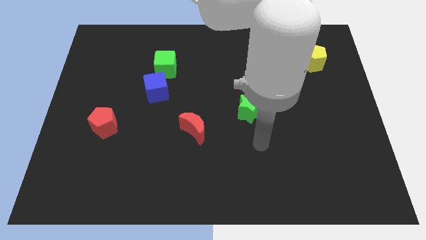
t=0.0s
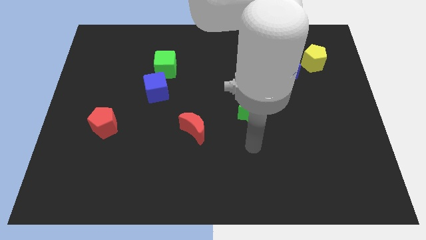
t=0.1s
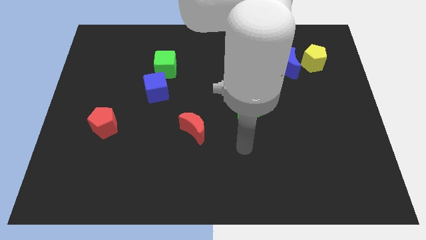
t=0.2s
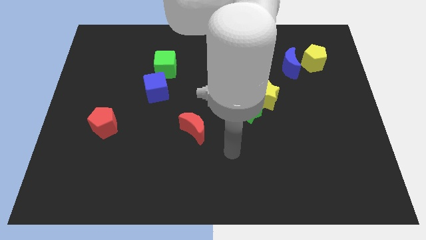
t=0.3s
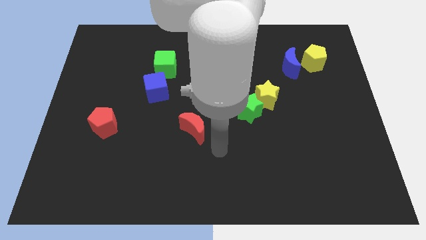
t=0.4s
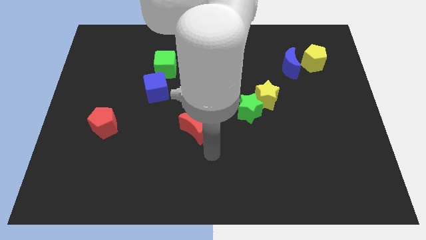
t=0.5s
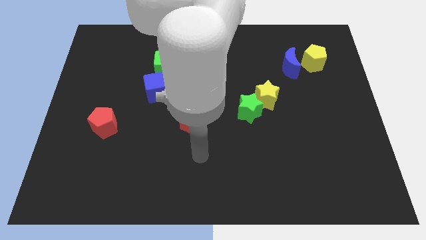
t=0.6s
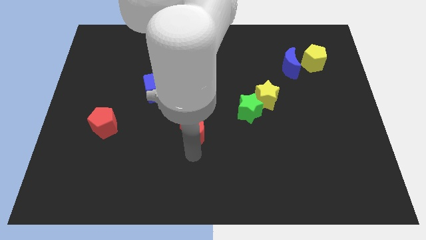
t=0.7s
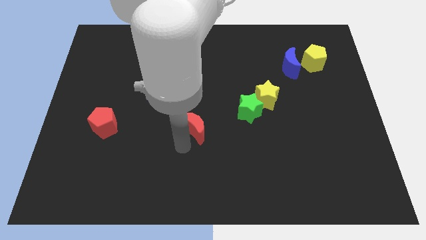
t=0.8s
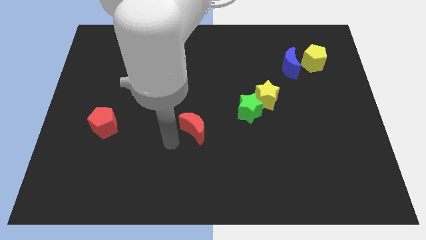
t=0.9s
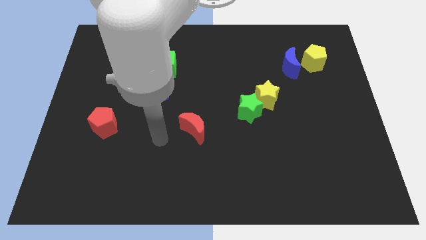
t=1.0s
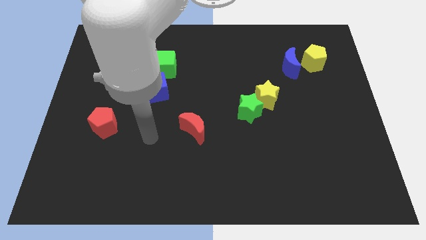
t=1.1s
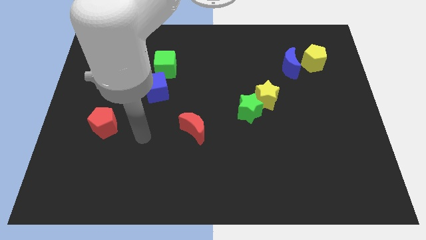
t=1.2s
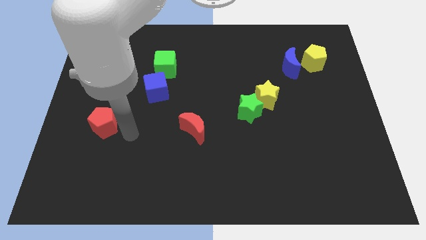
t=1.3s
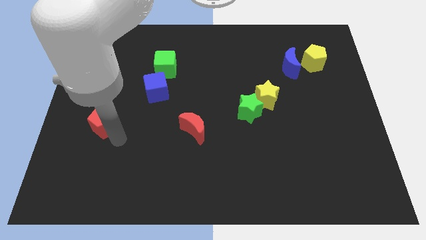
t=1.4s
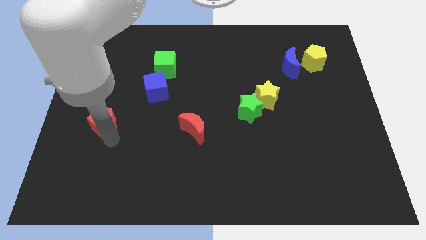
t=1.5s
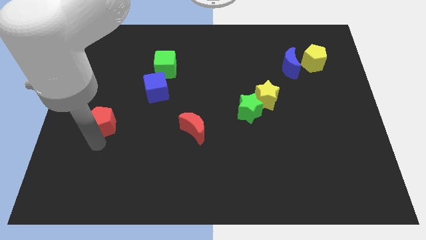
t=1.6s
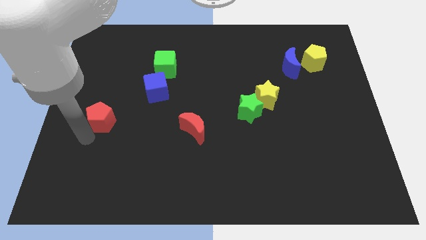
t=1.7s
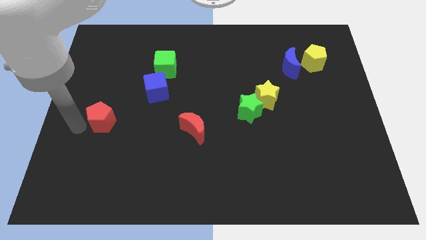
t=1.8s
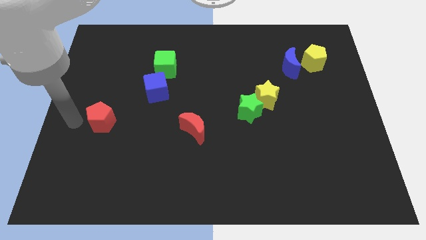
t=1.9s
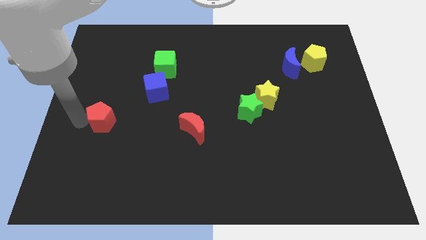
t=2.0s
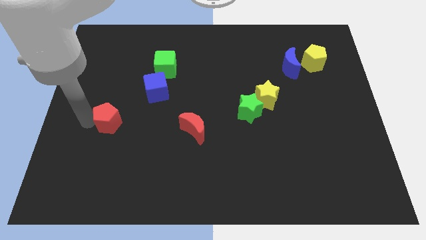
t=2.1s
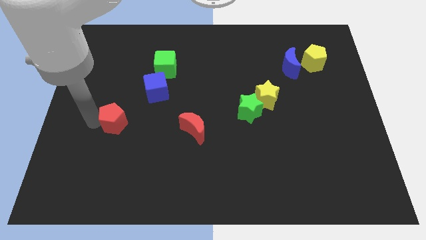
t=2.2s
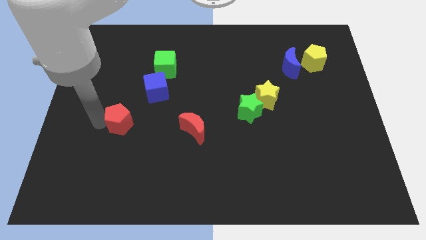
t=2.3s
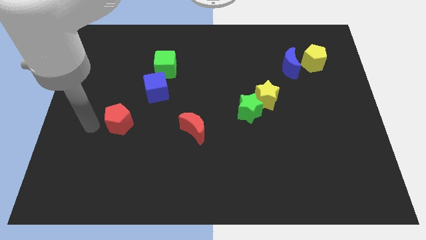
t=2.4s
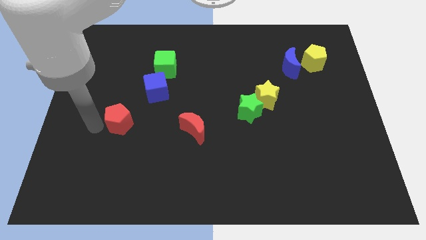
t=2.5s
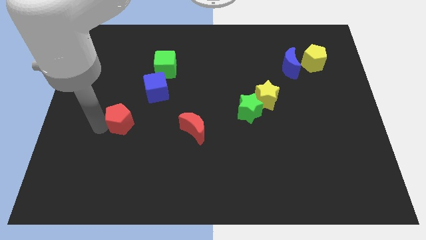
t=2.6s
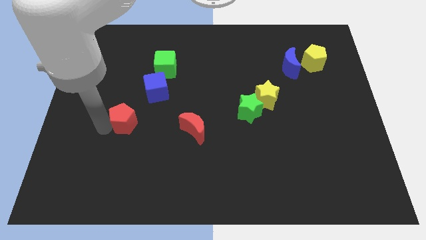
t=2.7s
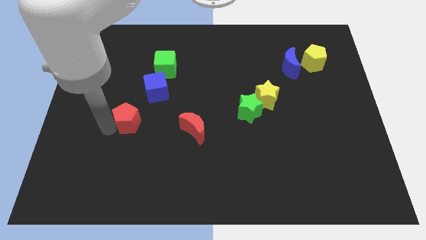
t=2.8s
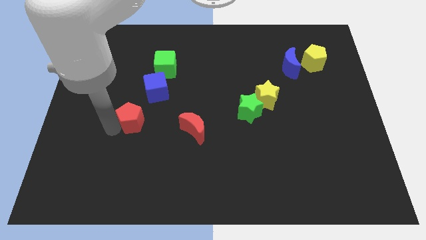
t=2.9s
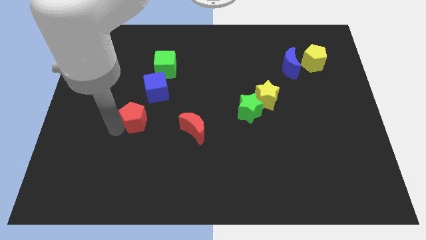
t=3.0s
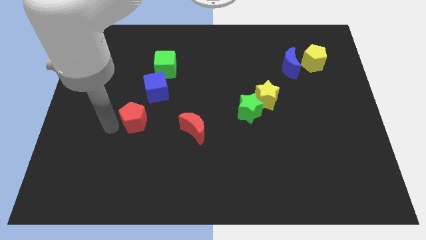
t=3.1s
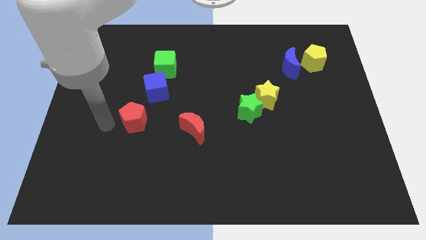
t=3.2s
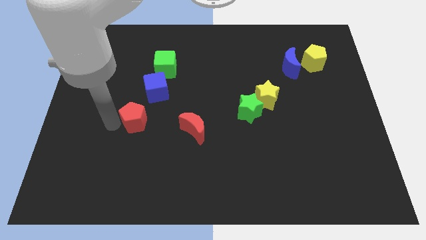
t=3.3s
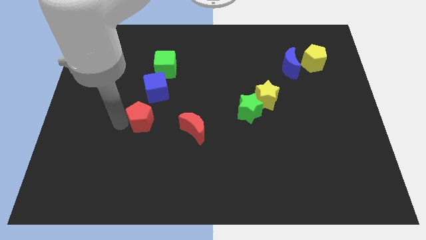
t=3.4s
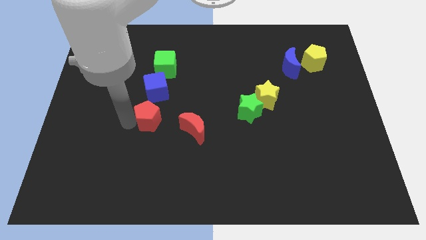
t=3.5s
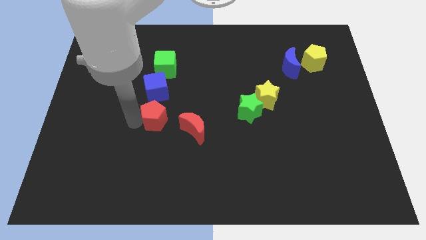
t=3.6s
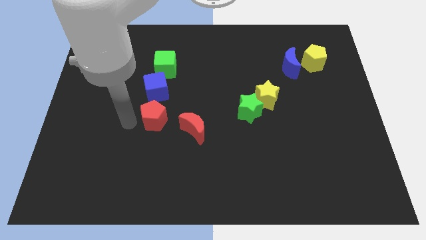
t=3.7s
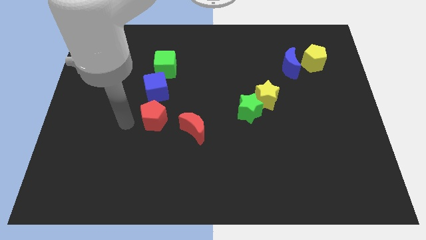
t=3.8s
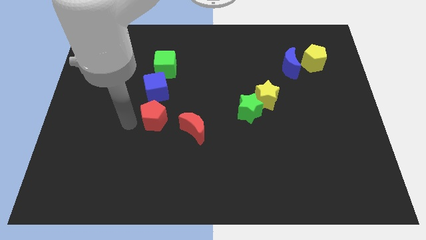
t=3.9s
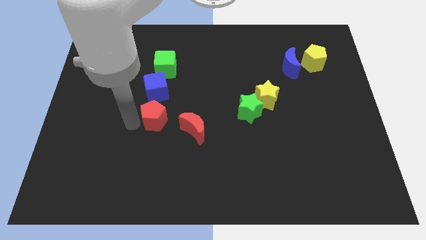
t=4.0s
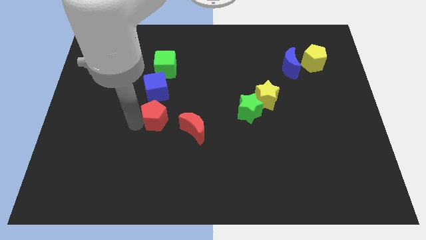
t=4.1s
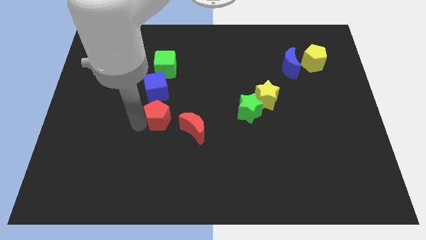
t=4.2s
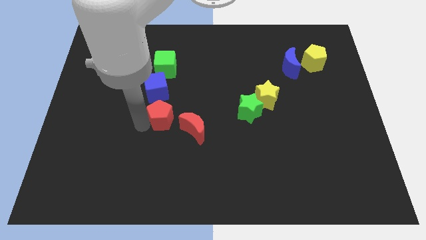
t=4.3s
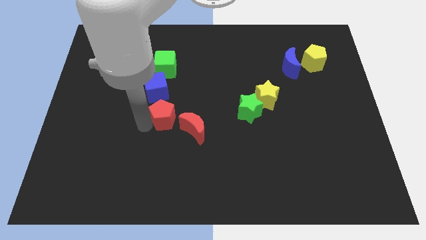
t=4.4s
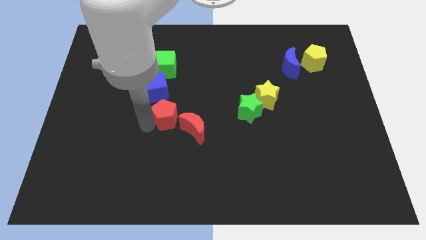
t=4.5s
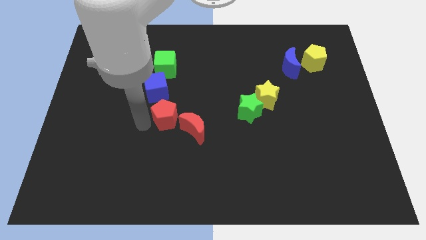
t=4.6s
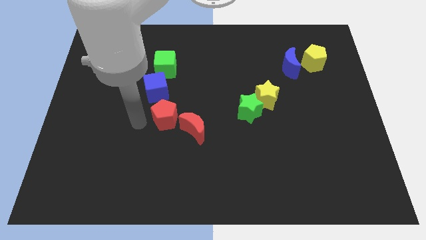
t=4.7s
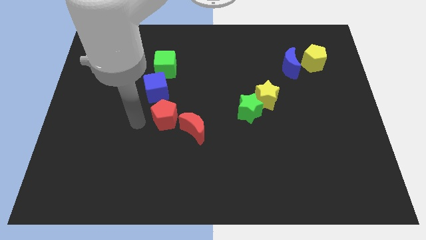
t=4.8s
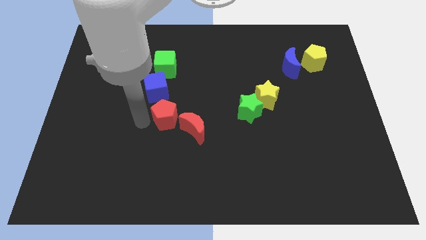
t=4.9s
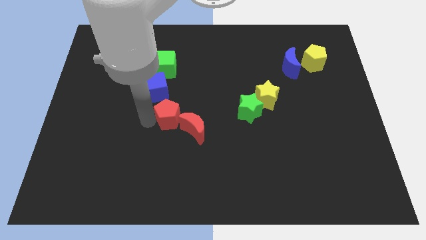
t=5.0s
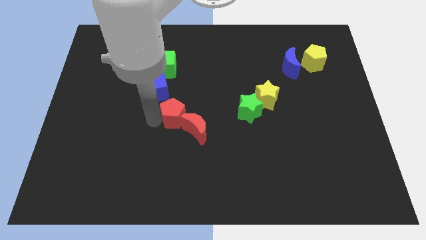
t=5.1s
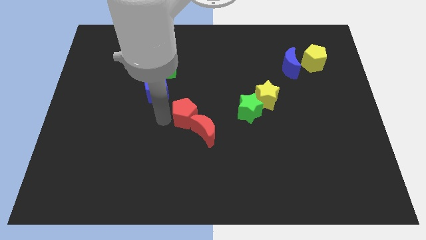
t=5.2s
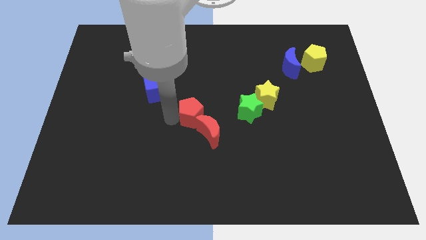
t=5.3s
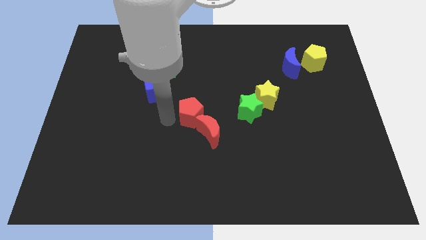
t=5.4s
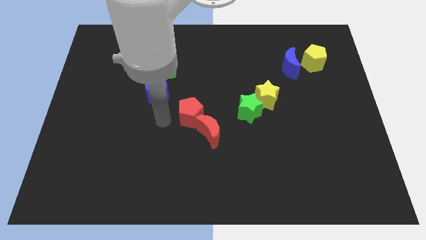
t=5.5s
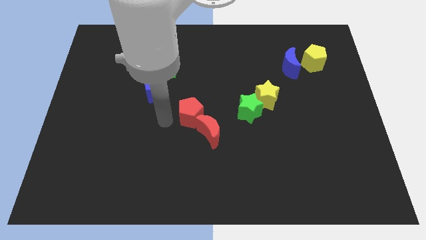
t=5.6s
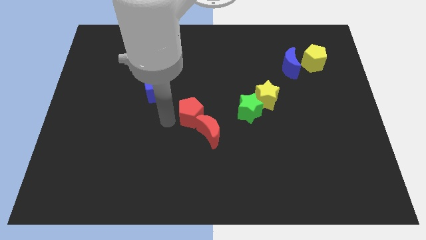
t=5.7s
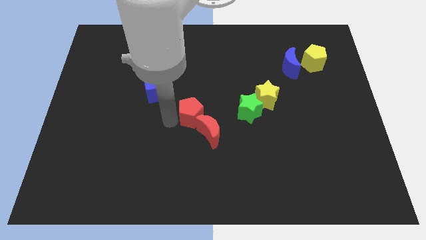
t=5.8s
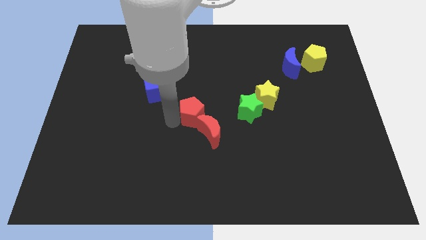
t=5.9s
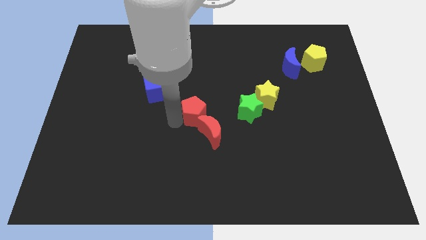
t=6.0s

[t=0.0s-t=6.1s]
slide the red pentagon right

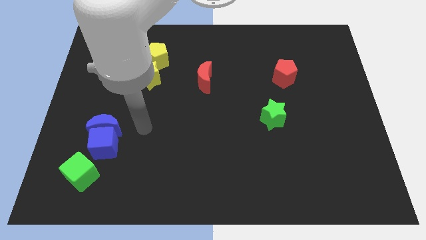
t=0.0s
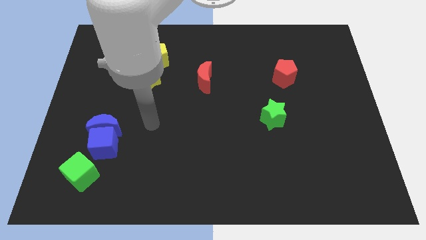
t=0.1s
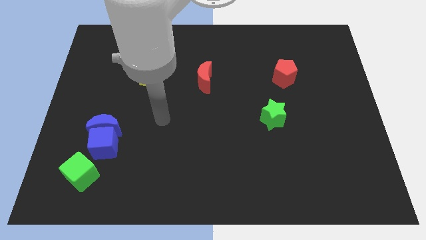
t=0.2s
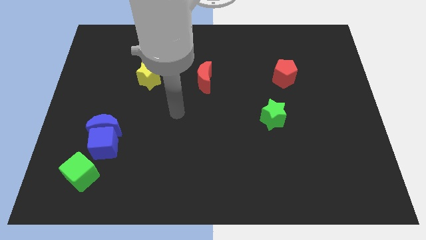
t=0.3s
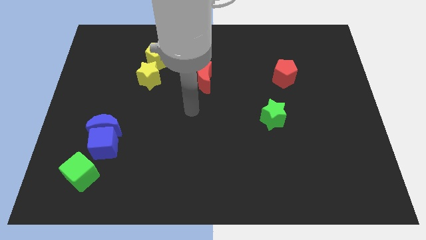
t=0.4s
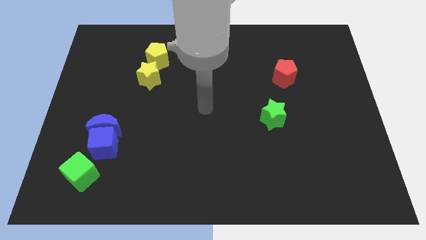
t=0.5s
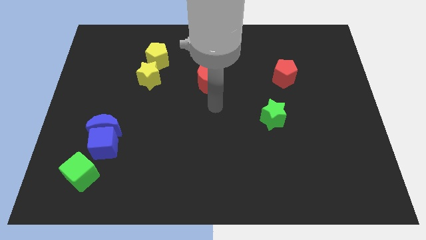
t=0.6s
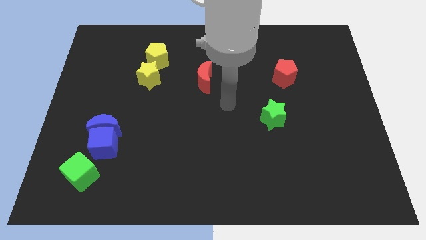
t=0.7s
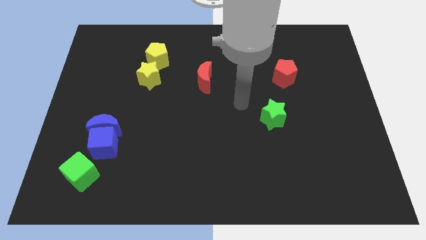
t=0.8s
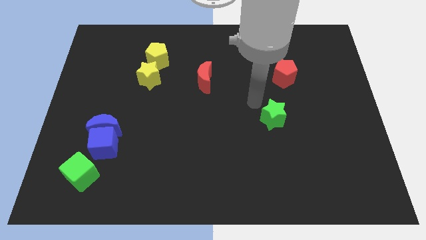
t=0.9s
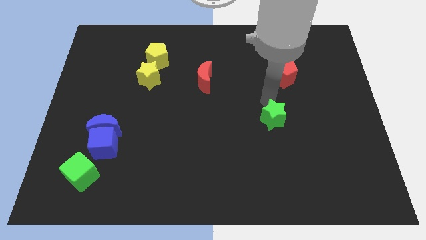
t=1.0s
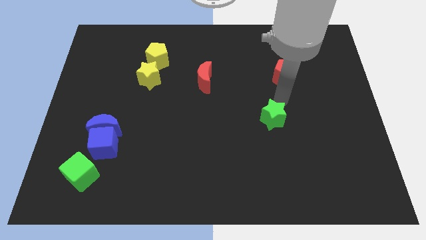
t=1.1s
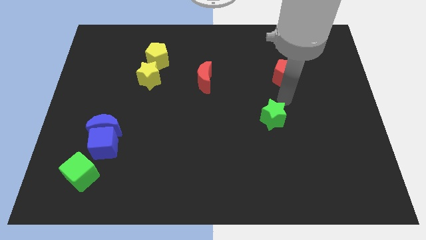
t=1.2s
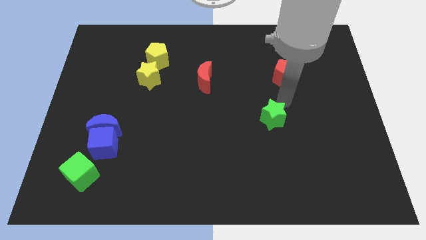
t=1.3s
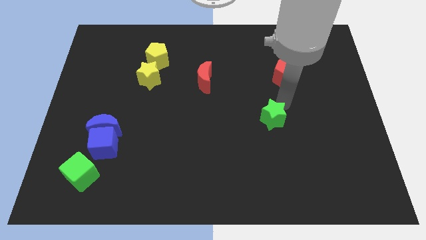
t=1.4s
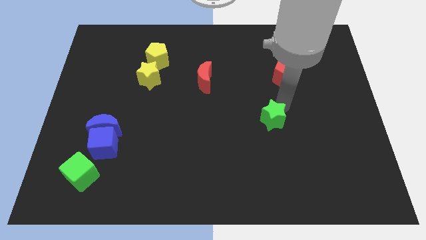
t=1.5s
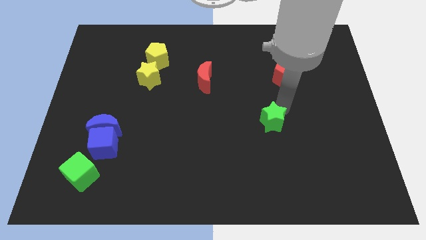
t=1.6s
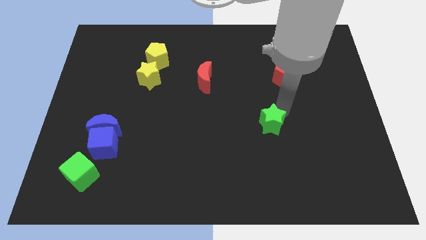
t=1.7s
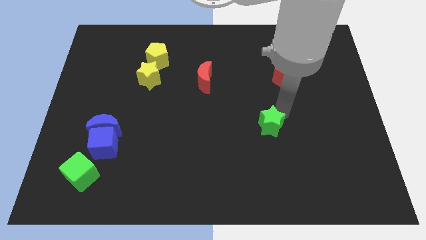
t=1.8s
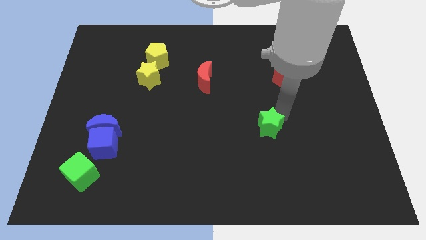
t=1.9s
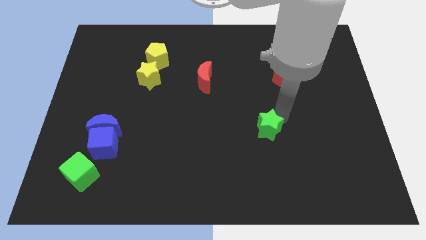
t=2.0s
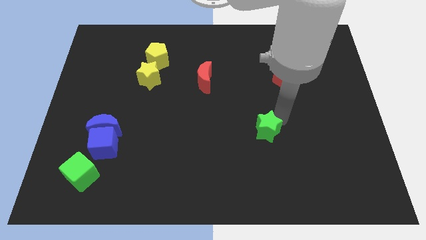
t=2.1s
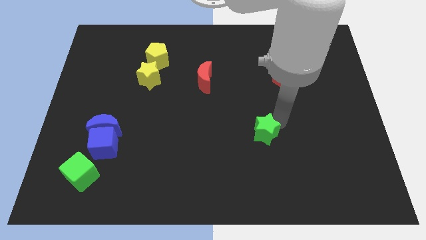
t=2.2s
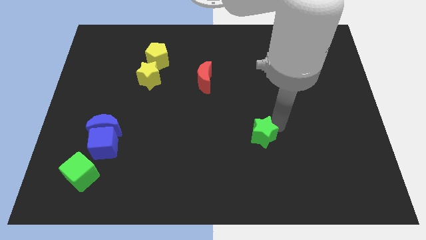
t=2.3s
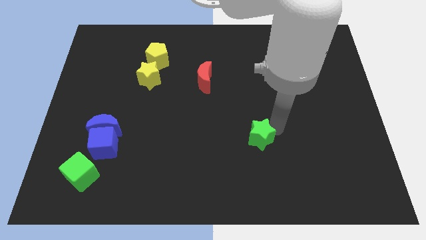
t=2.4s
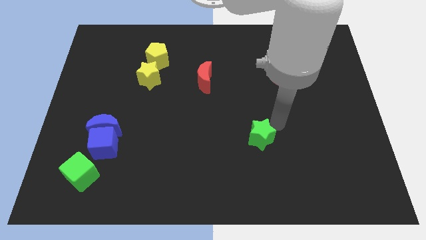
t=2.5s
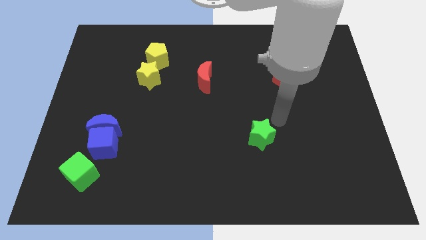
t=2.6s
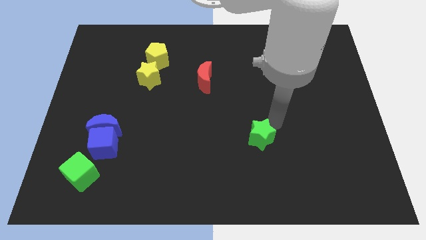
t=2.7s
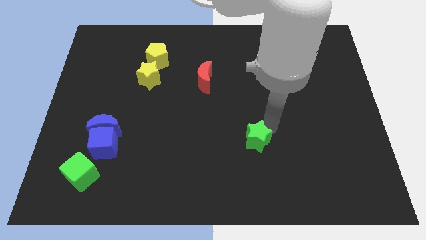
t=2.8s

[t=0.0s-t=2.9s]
slightly push the green star downwards and to the left
